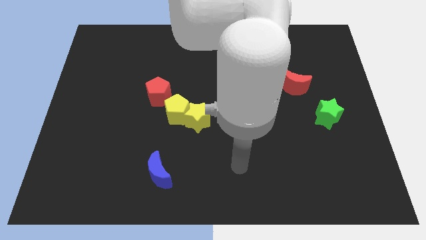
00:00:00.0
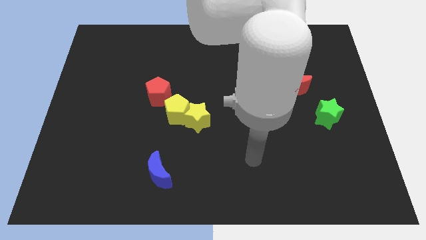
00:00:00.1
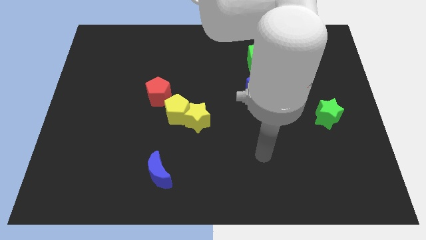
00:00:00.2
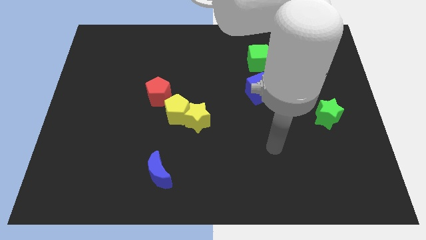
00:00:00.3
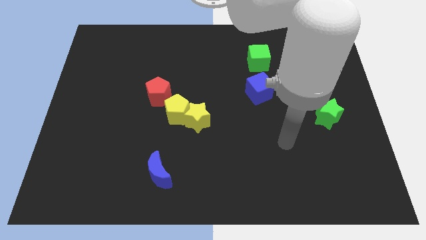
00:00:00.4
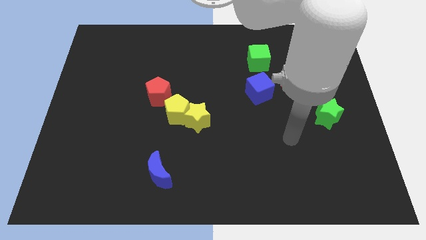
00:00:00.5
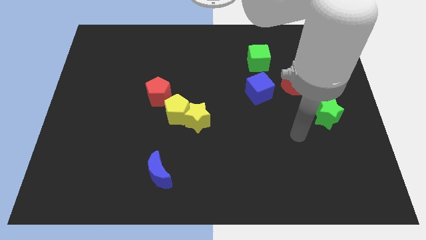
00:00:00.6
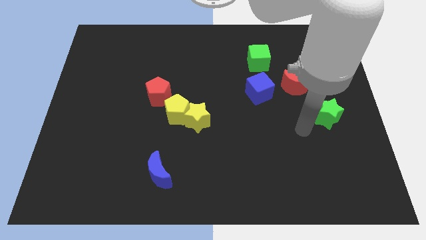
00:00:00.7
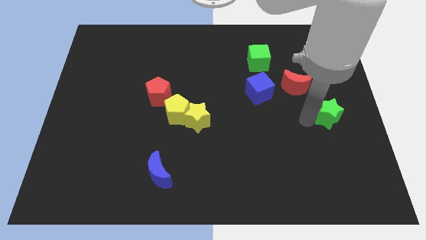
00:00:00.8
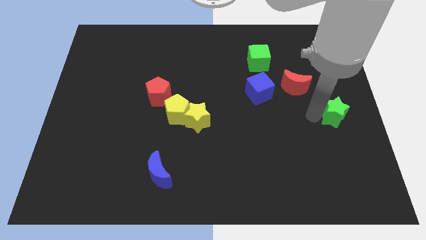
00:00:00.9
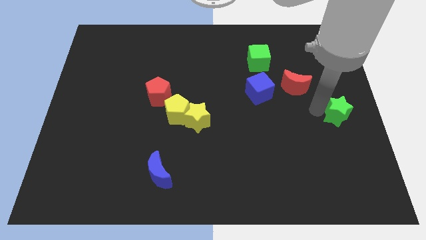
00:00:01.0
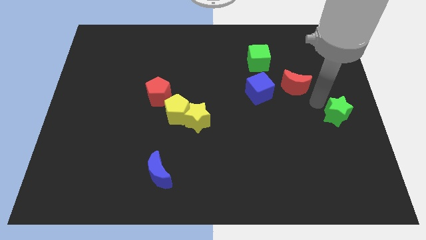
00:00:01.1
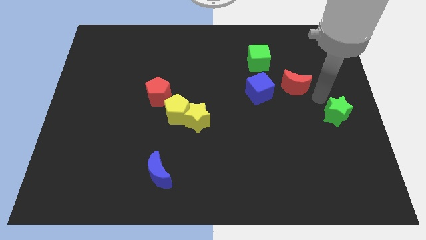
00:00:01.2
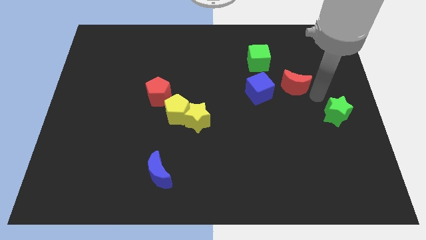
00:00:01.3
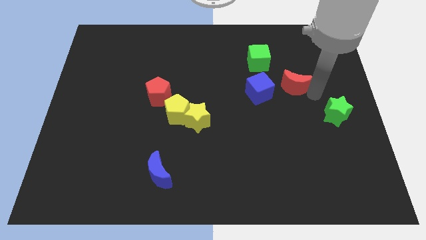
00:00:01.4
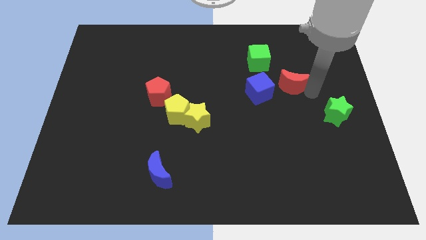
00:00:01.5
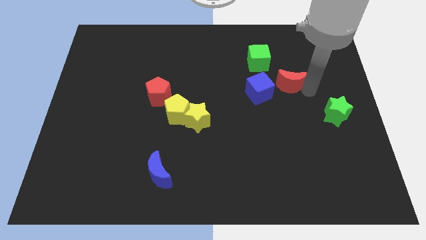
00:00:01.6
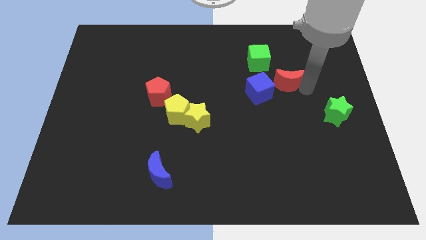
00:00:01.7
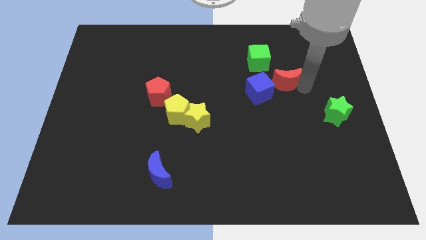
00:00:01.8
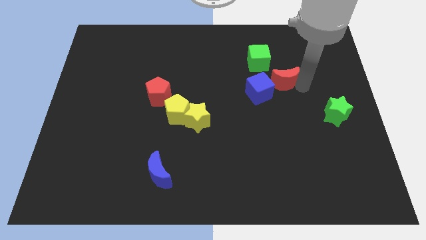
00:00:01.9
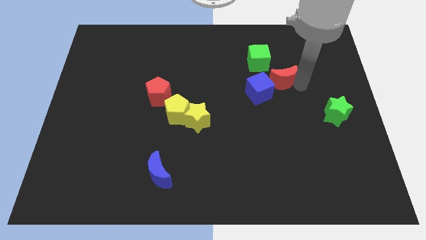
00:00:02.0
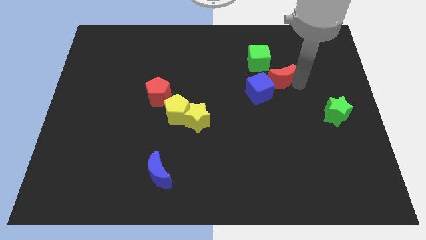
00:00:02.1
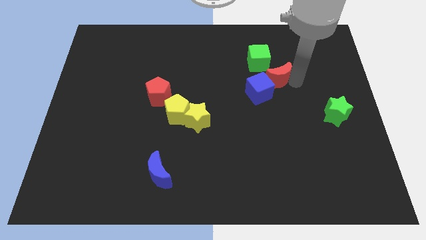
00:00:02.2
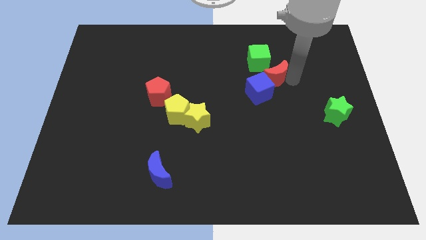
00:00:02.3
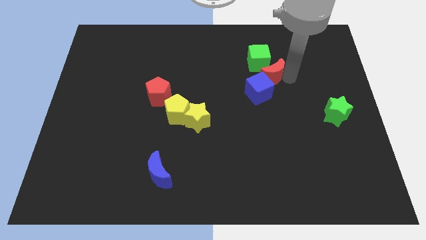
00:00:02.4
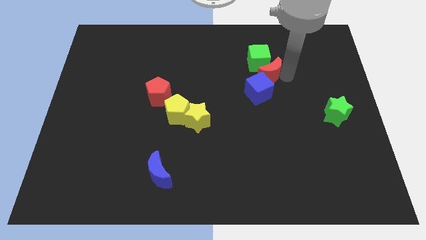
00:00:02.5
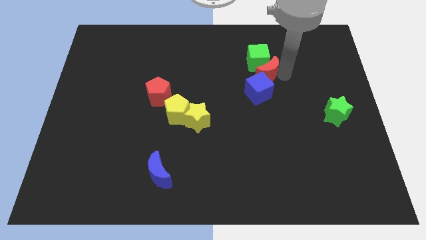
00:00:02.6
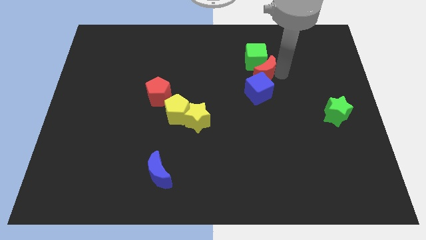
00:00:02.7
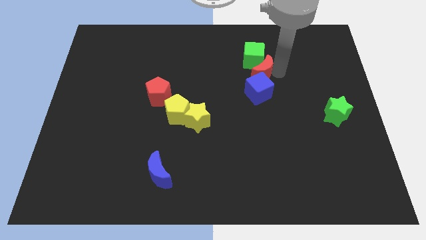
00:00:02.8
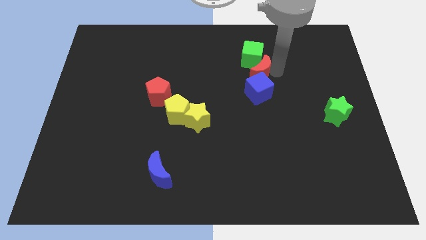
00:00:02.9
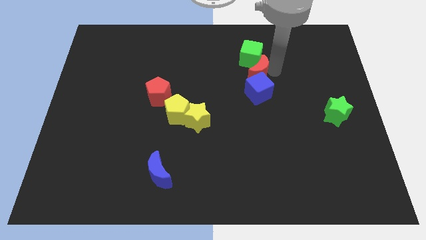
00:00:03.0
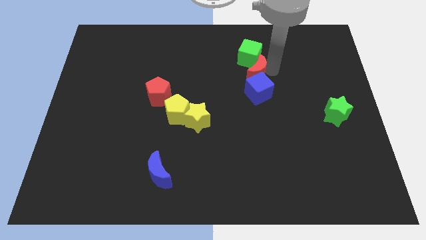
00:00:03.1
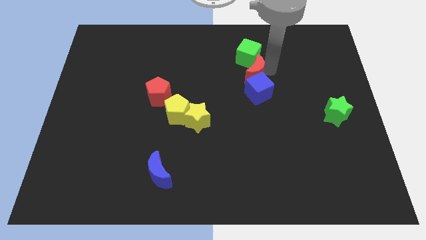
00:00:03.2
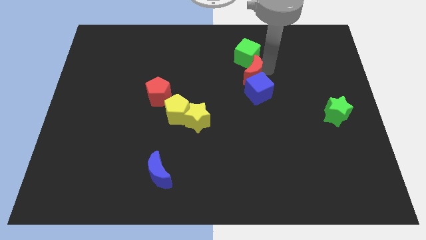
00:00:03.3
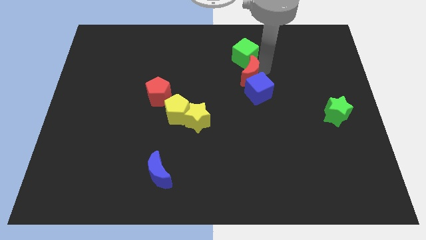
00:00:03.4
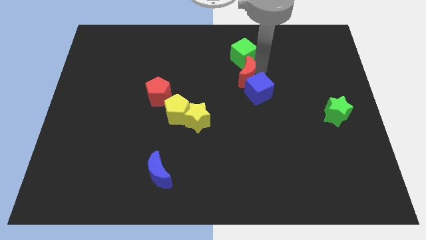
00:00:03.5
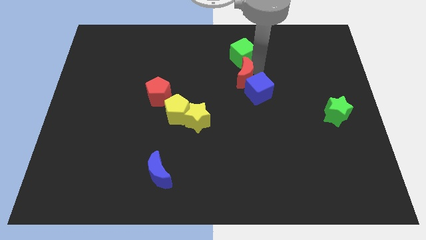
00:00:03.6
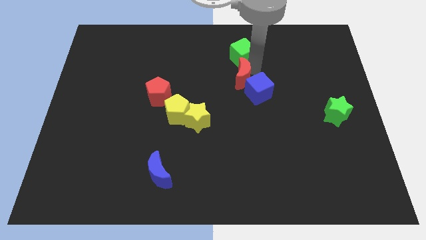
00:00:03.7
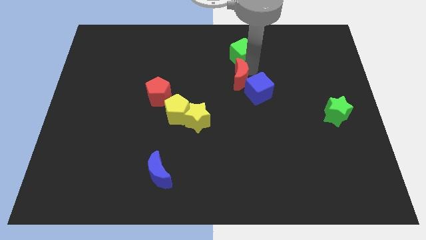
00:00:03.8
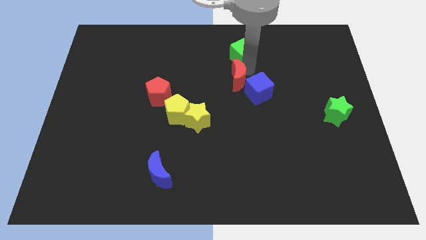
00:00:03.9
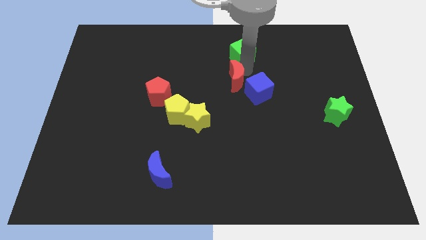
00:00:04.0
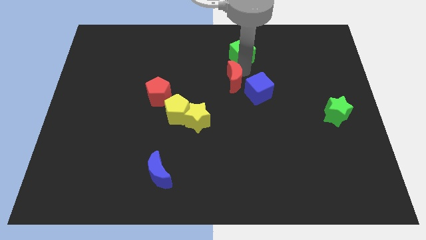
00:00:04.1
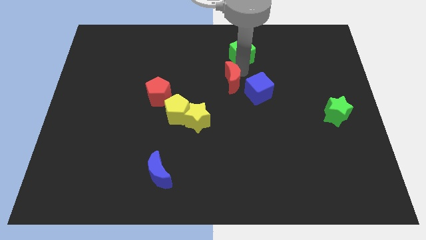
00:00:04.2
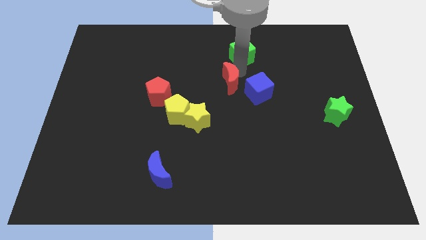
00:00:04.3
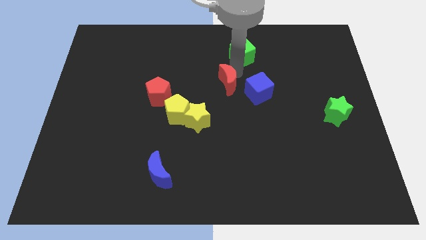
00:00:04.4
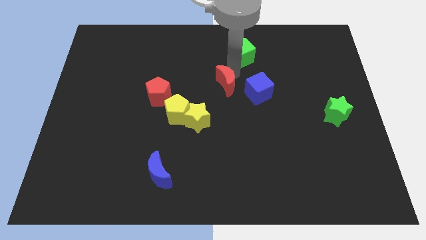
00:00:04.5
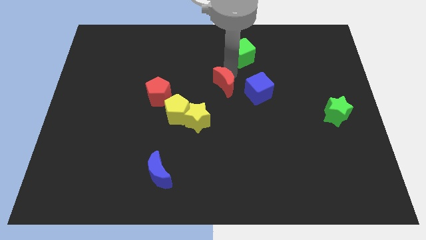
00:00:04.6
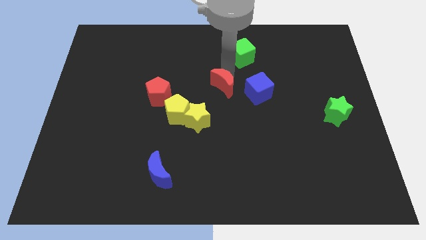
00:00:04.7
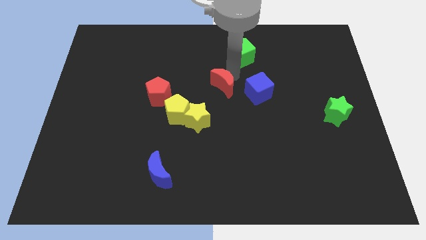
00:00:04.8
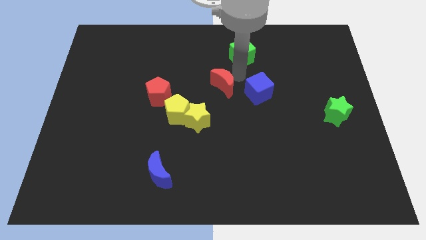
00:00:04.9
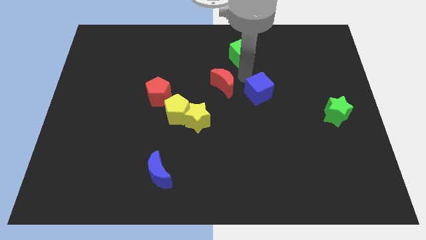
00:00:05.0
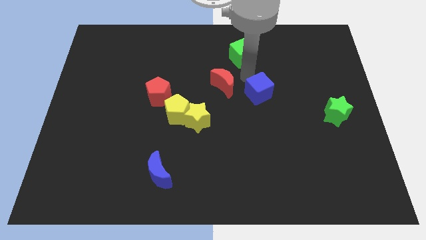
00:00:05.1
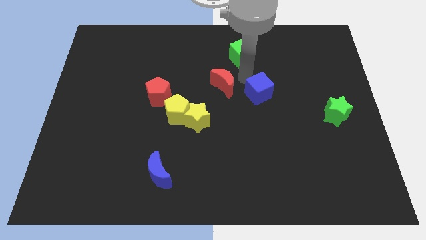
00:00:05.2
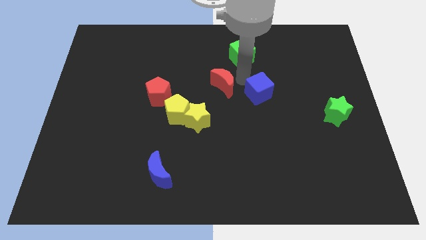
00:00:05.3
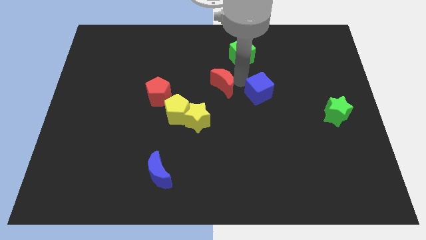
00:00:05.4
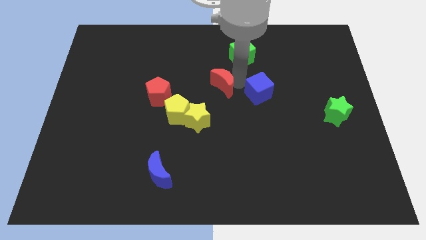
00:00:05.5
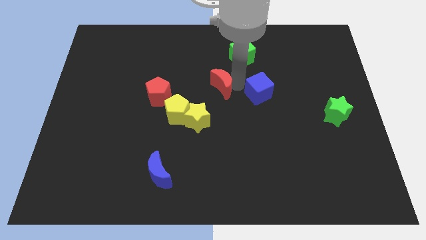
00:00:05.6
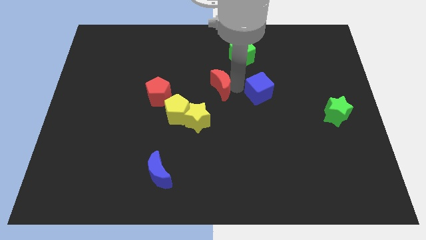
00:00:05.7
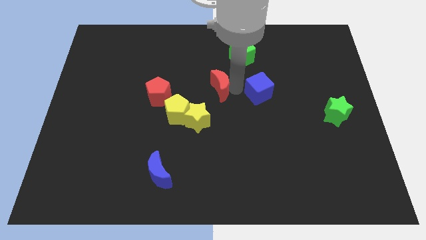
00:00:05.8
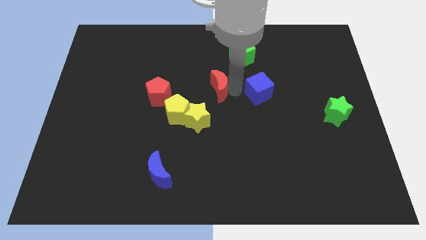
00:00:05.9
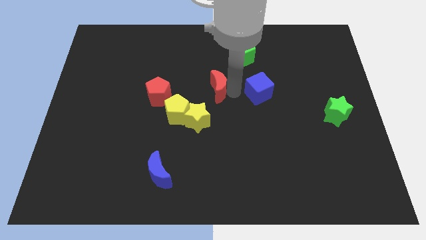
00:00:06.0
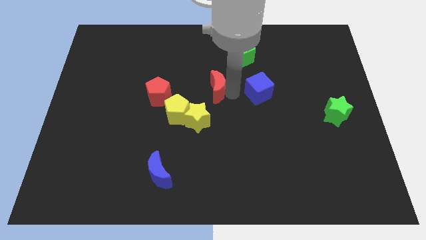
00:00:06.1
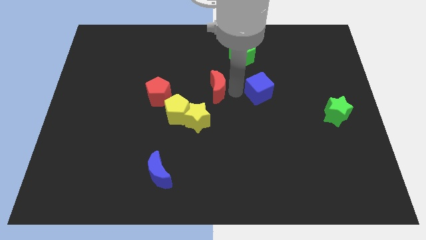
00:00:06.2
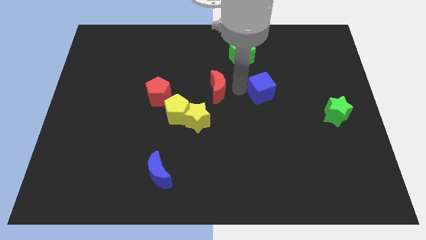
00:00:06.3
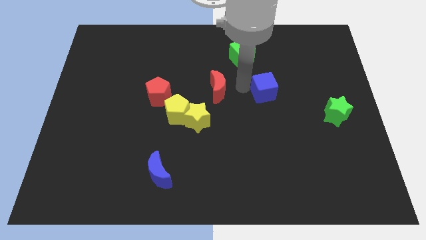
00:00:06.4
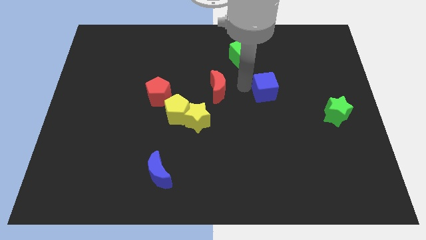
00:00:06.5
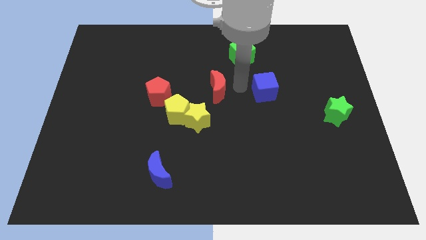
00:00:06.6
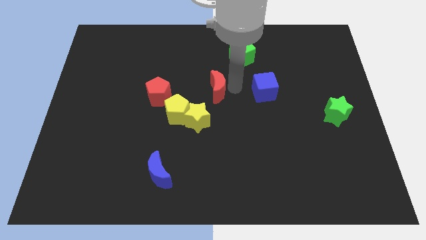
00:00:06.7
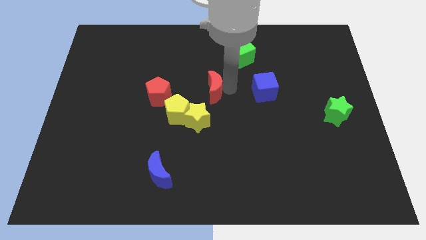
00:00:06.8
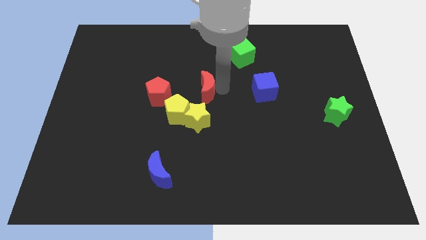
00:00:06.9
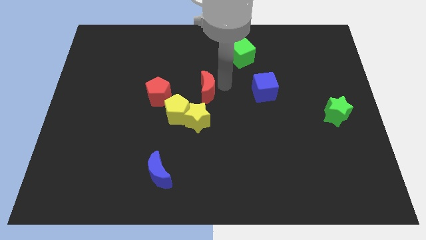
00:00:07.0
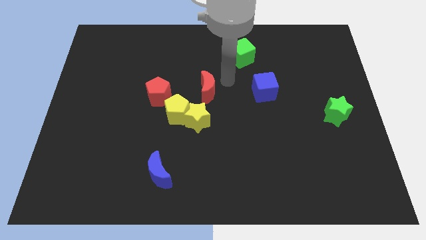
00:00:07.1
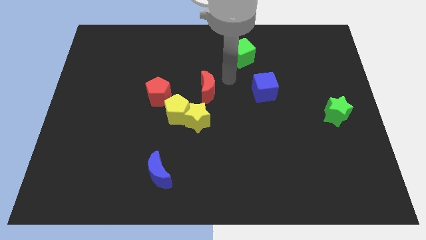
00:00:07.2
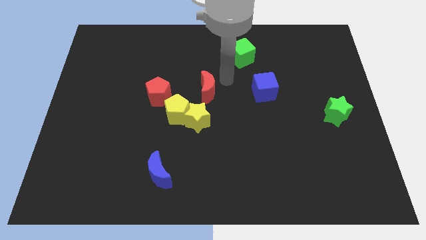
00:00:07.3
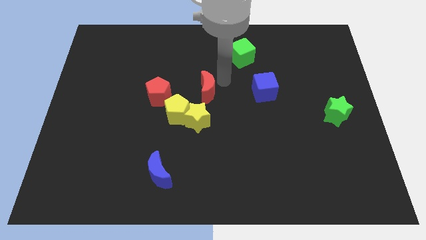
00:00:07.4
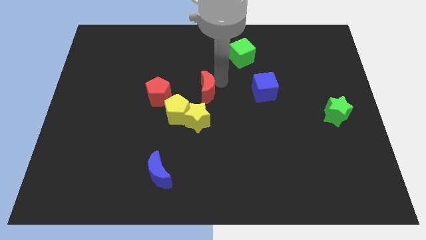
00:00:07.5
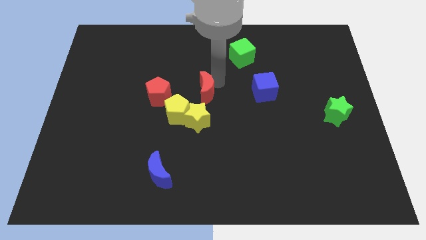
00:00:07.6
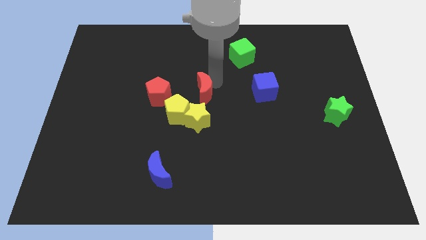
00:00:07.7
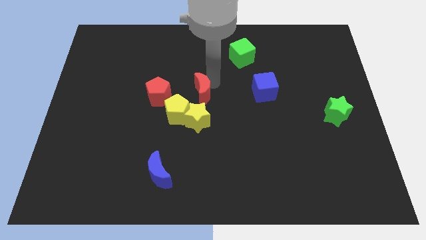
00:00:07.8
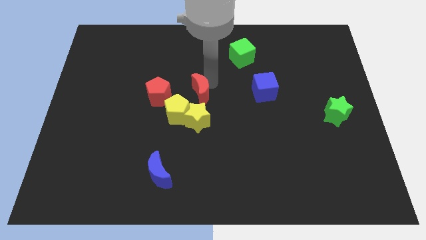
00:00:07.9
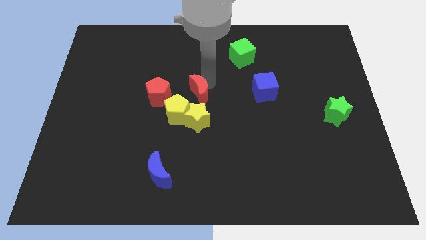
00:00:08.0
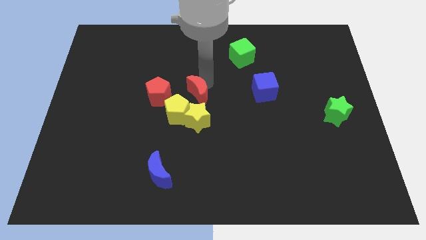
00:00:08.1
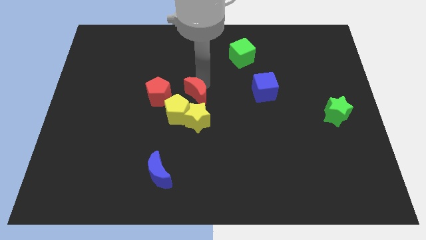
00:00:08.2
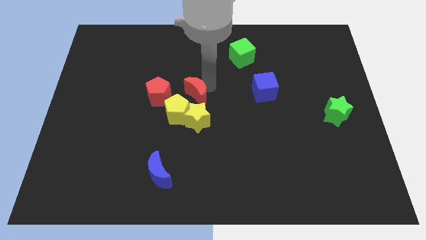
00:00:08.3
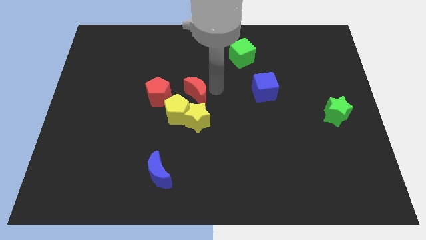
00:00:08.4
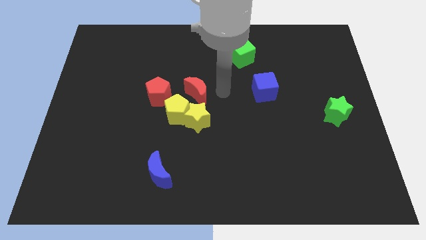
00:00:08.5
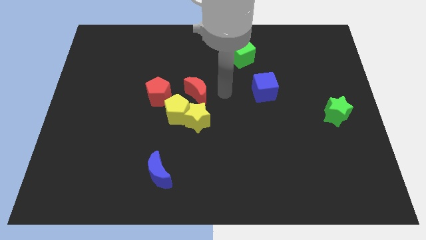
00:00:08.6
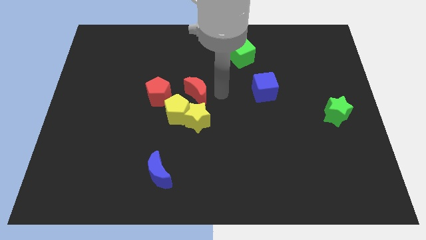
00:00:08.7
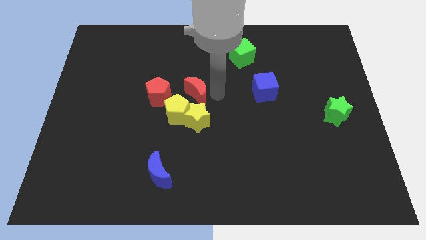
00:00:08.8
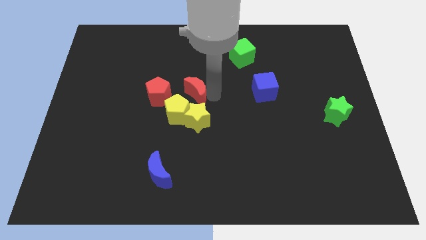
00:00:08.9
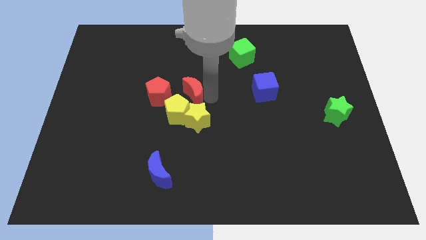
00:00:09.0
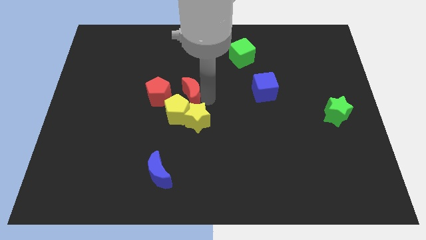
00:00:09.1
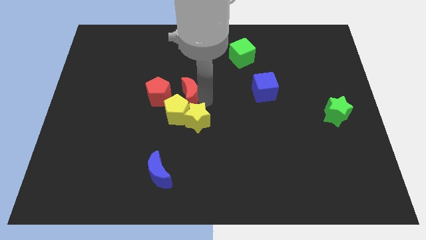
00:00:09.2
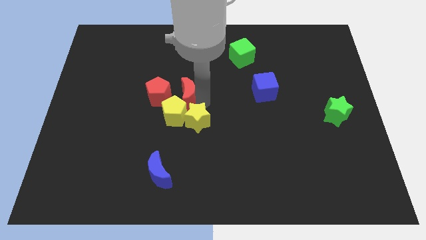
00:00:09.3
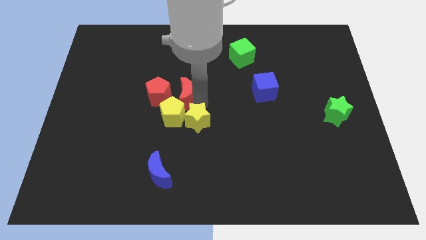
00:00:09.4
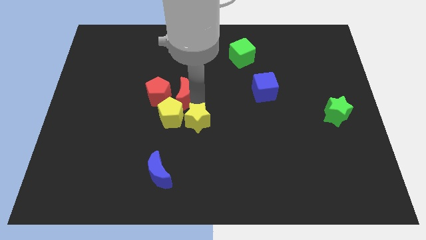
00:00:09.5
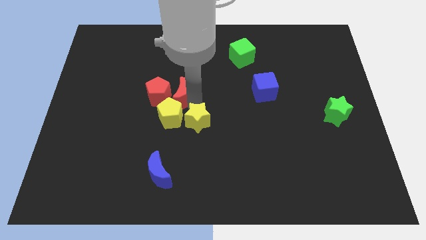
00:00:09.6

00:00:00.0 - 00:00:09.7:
push the red moon next to the red pentagon
